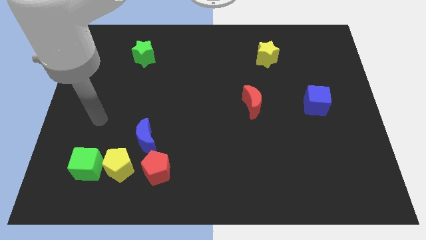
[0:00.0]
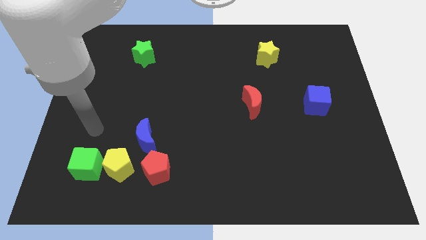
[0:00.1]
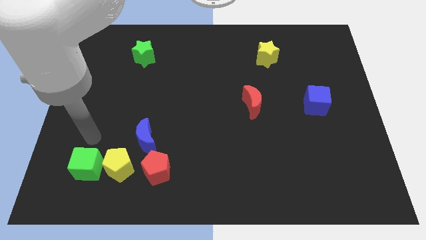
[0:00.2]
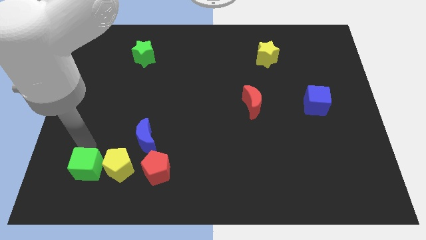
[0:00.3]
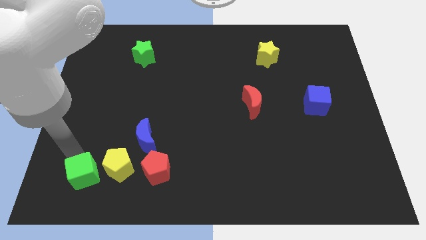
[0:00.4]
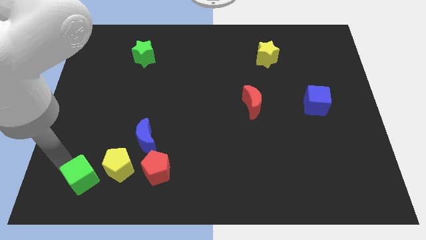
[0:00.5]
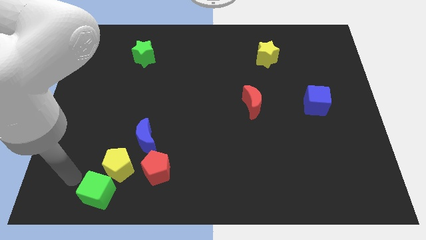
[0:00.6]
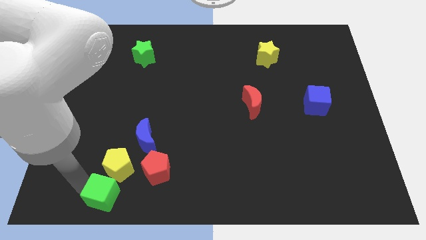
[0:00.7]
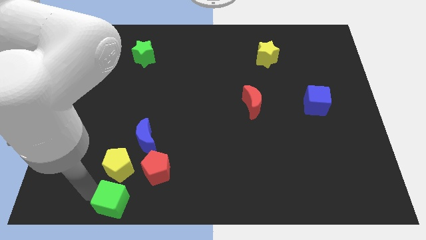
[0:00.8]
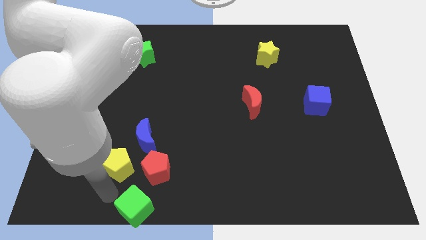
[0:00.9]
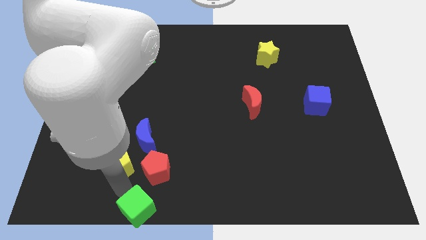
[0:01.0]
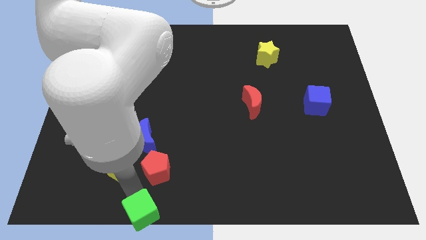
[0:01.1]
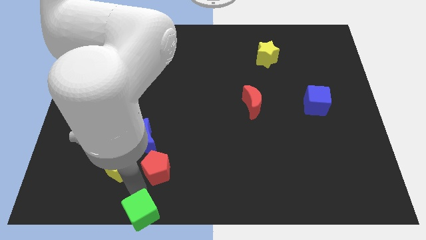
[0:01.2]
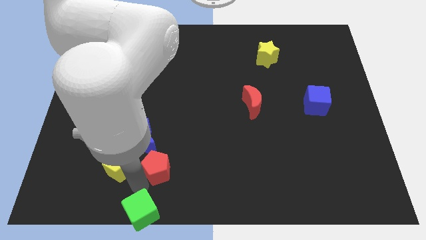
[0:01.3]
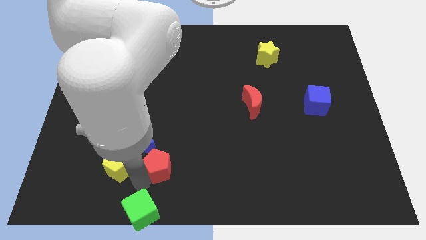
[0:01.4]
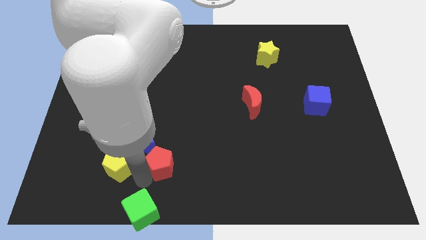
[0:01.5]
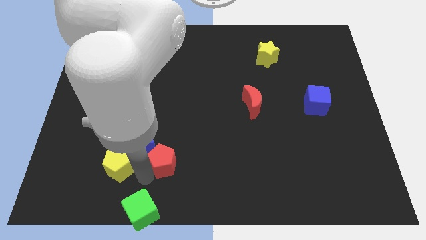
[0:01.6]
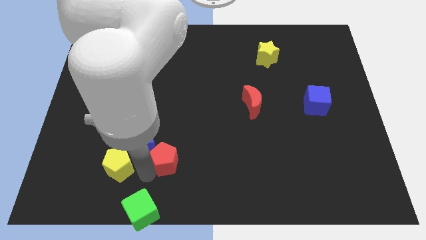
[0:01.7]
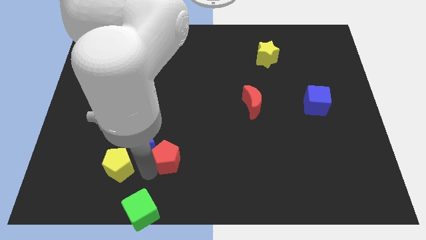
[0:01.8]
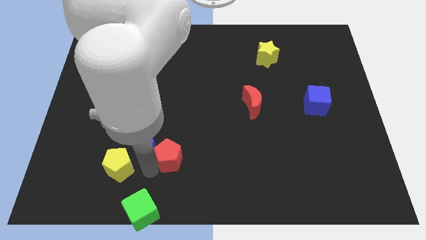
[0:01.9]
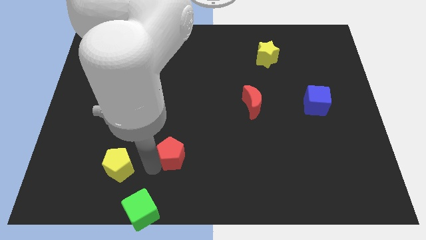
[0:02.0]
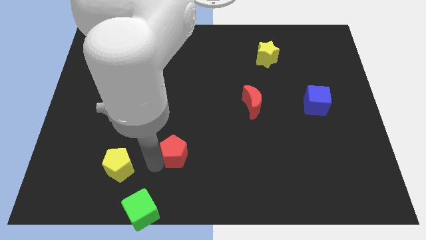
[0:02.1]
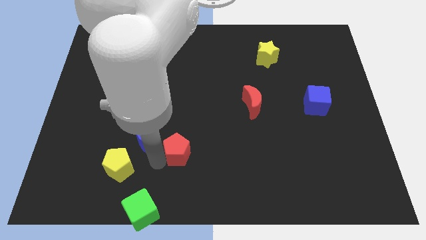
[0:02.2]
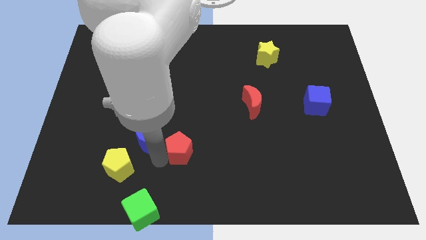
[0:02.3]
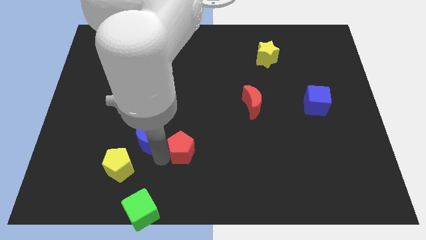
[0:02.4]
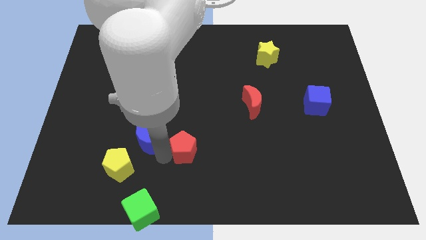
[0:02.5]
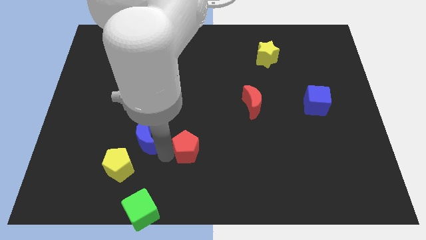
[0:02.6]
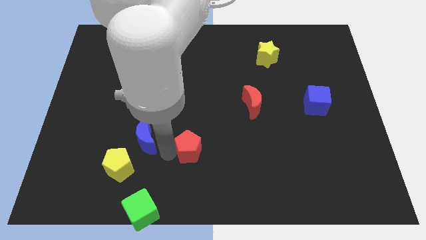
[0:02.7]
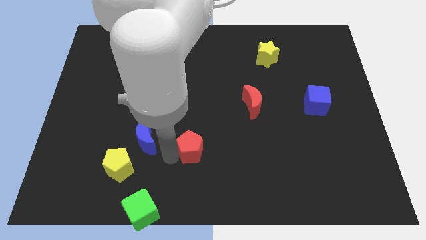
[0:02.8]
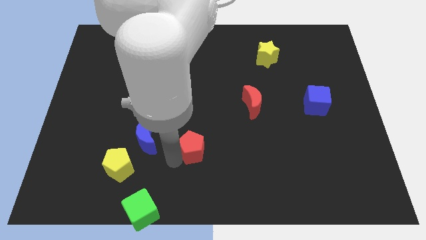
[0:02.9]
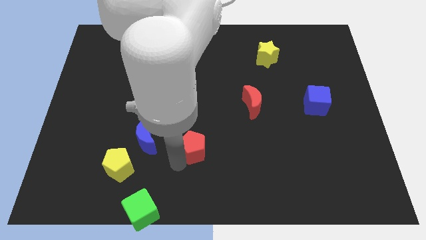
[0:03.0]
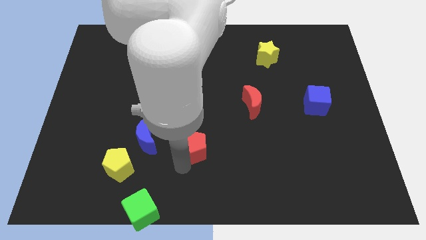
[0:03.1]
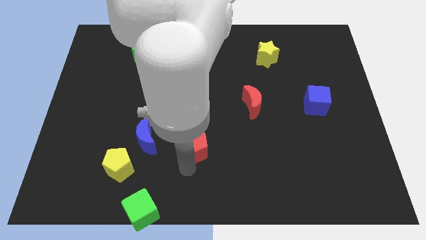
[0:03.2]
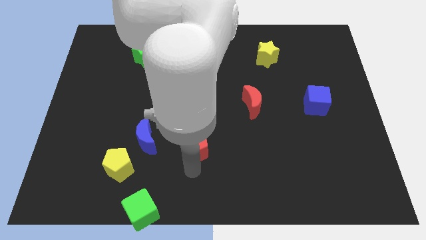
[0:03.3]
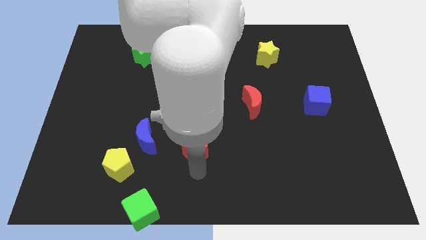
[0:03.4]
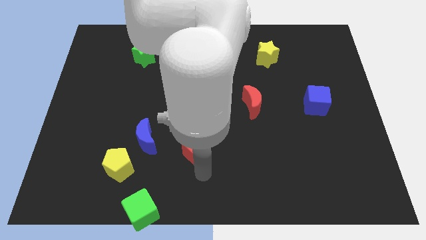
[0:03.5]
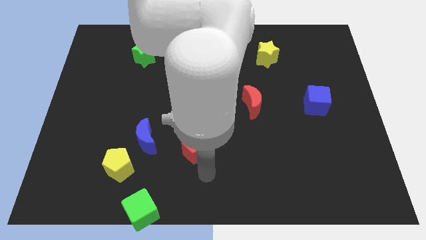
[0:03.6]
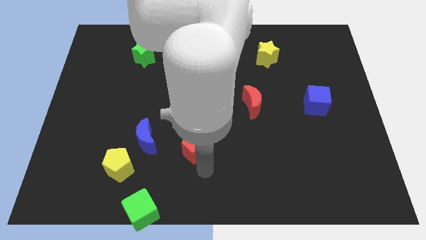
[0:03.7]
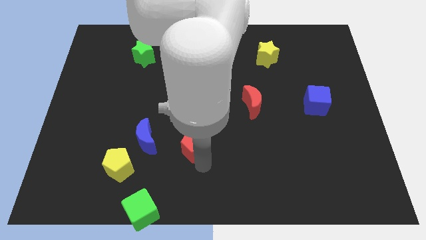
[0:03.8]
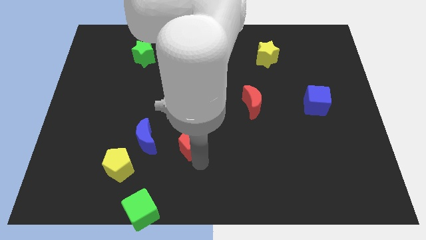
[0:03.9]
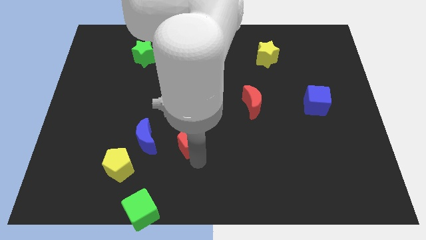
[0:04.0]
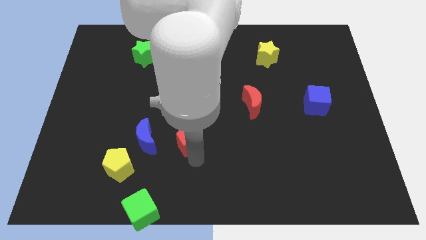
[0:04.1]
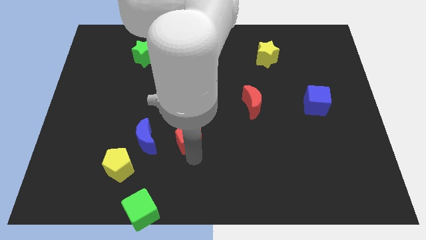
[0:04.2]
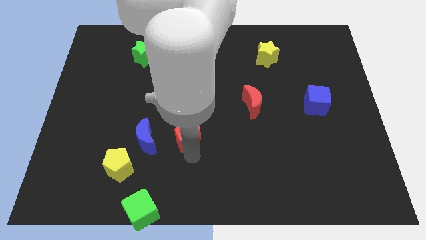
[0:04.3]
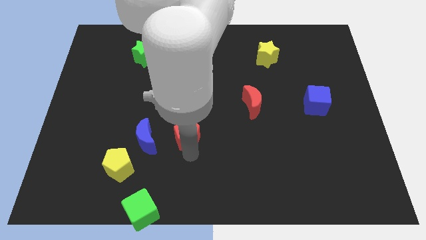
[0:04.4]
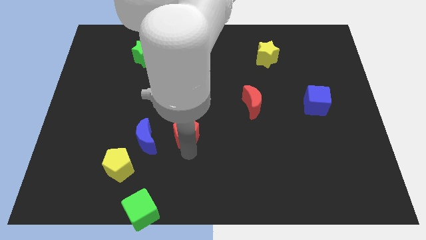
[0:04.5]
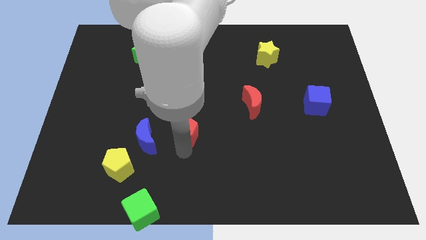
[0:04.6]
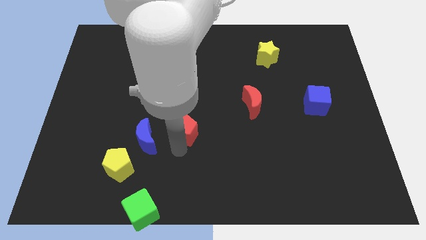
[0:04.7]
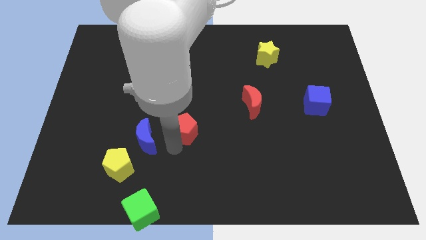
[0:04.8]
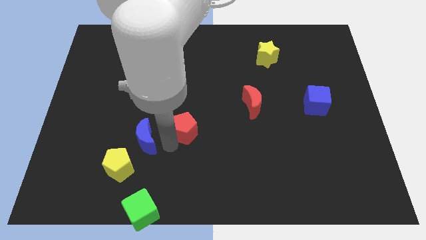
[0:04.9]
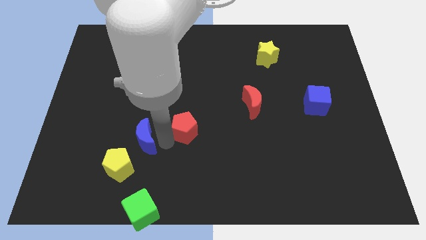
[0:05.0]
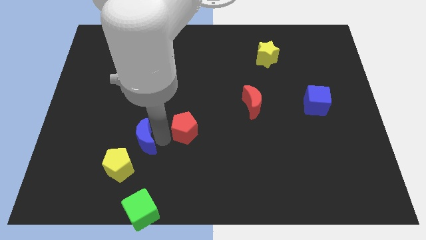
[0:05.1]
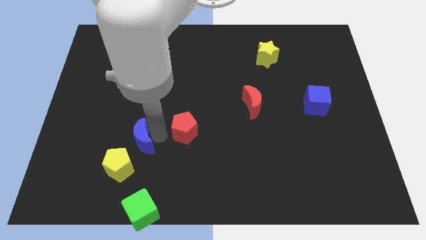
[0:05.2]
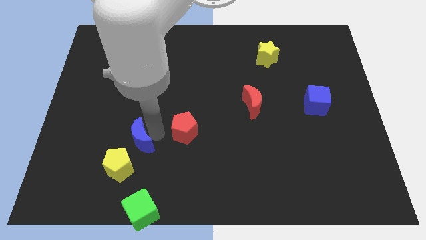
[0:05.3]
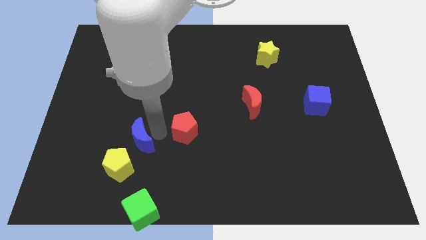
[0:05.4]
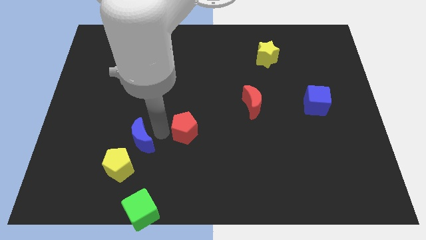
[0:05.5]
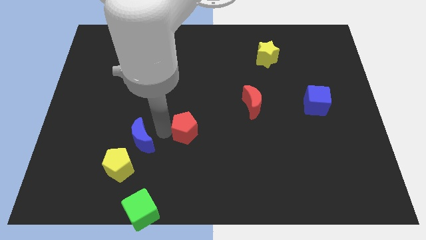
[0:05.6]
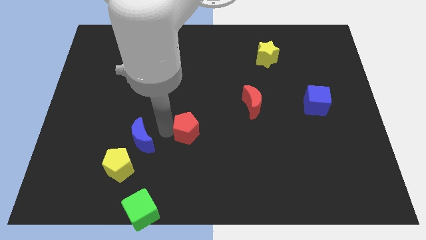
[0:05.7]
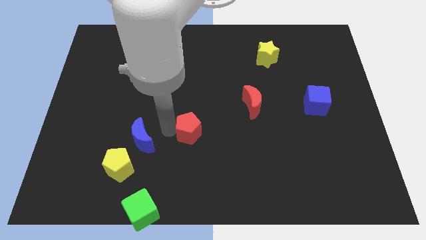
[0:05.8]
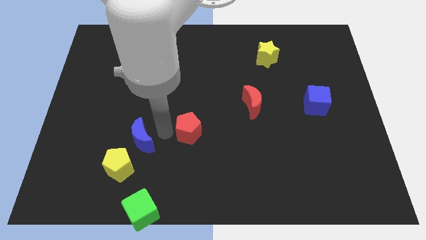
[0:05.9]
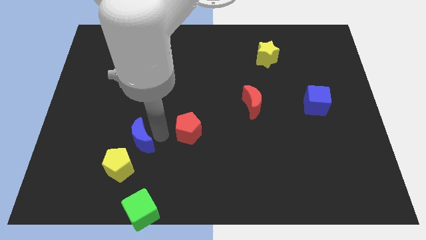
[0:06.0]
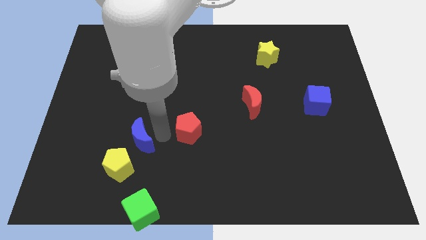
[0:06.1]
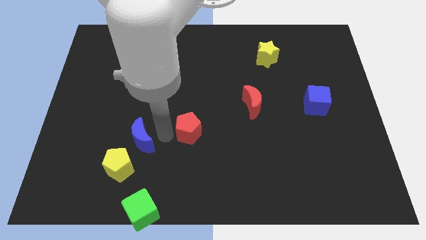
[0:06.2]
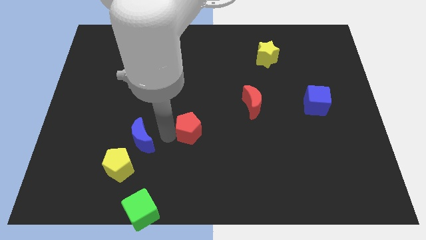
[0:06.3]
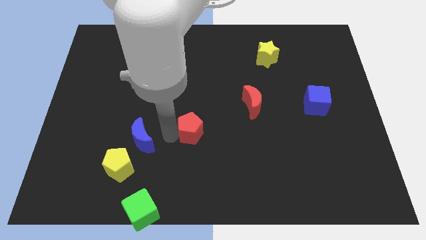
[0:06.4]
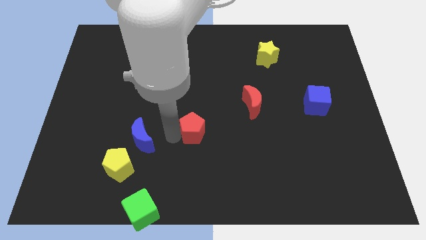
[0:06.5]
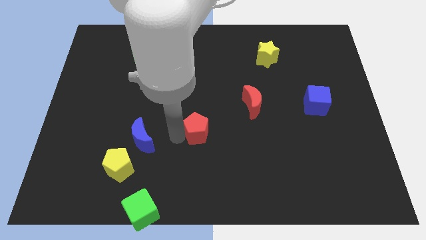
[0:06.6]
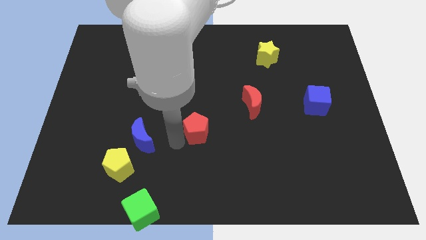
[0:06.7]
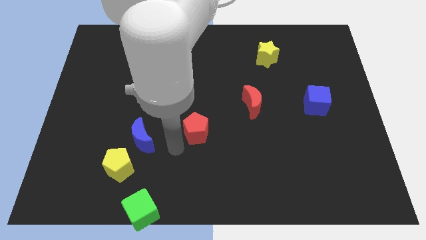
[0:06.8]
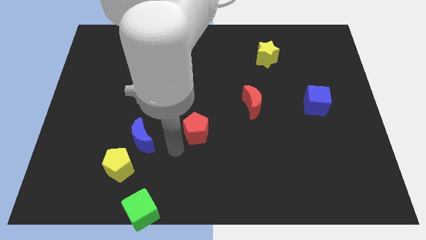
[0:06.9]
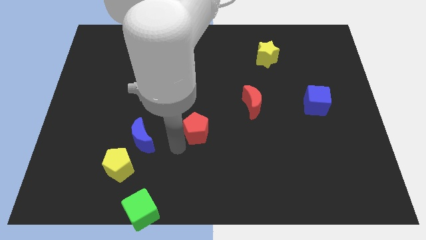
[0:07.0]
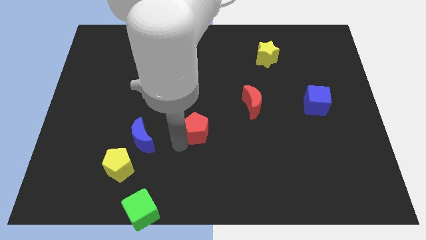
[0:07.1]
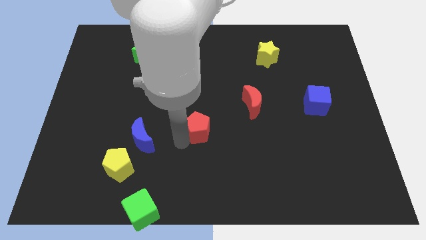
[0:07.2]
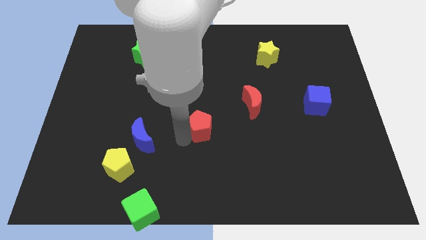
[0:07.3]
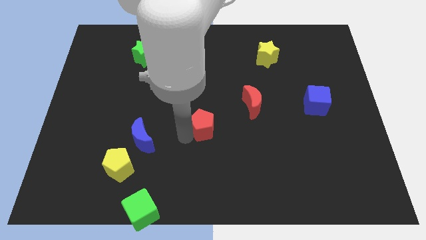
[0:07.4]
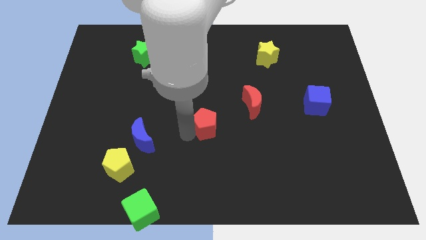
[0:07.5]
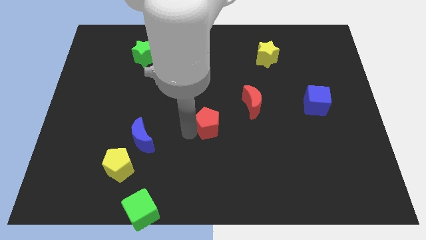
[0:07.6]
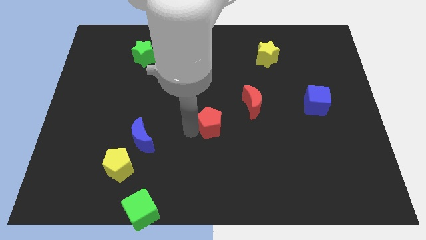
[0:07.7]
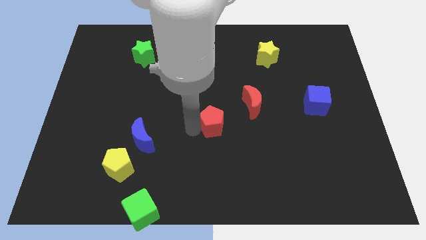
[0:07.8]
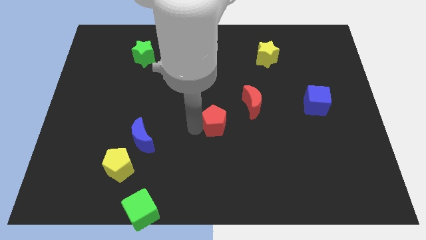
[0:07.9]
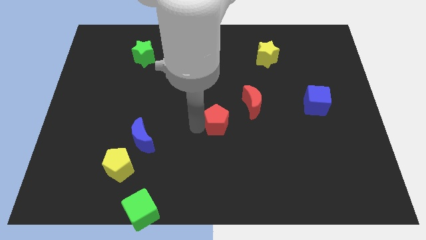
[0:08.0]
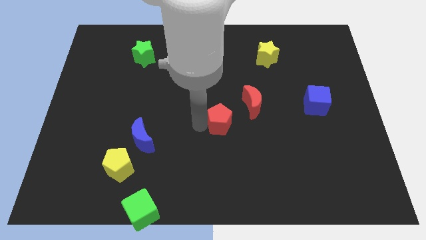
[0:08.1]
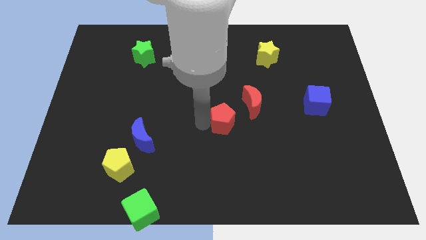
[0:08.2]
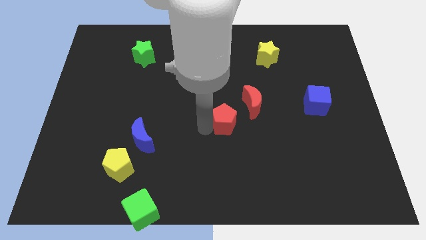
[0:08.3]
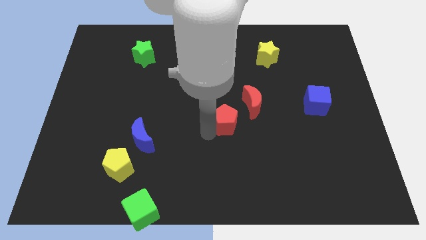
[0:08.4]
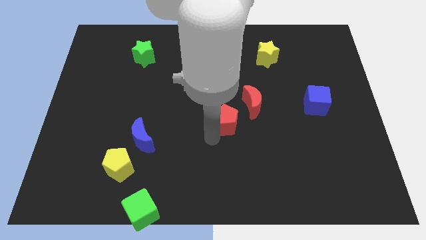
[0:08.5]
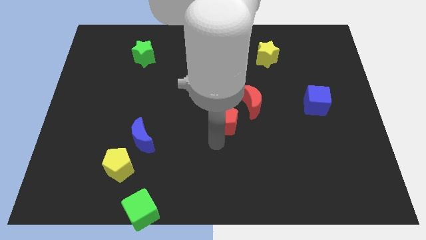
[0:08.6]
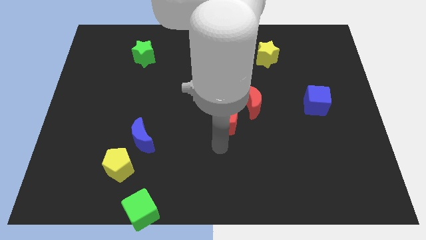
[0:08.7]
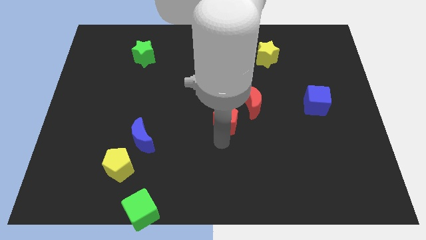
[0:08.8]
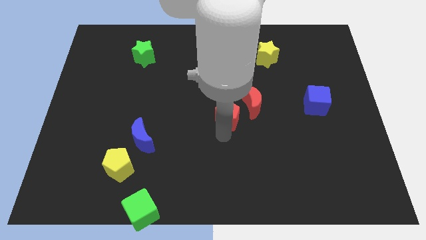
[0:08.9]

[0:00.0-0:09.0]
move the red pentagon up and to the right diagonally
